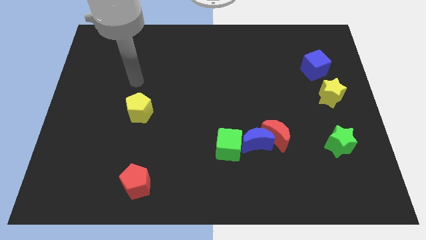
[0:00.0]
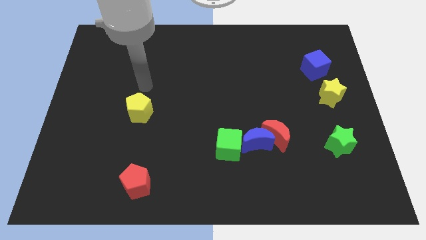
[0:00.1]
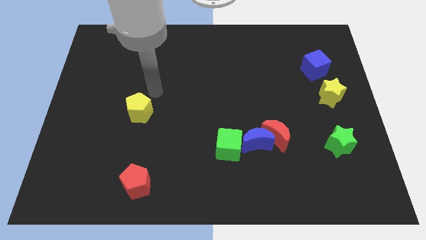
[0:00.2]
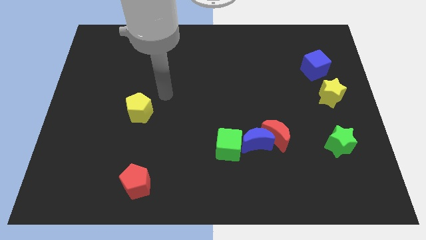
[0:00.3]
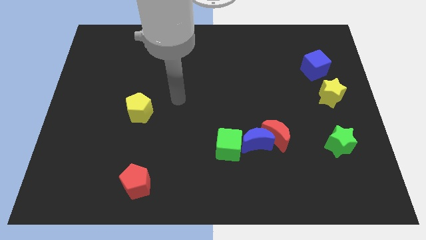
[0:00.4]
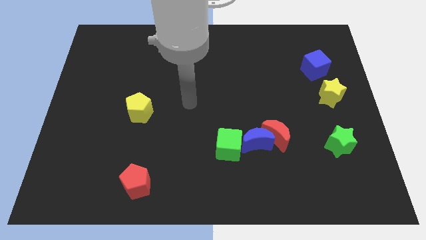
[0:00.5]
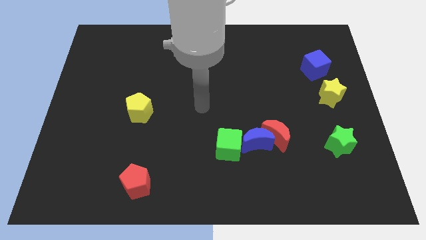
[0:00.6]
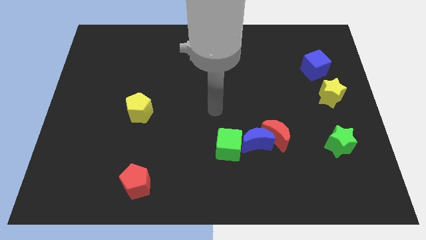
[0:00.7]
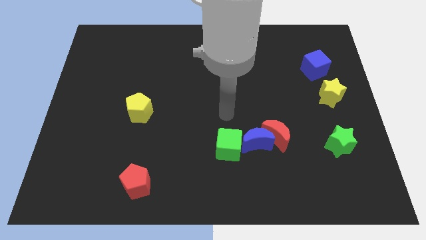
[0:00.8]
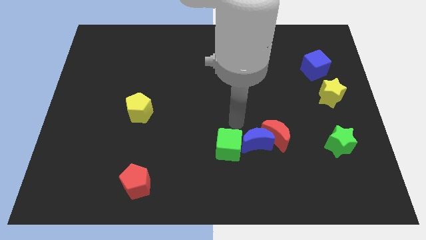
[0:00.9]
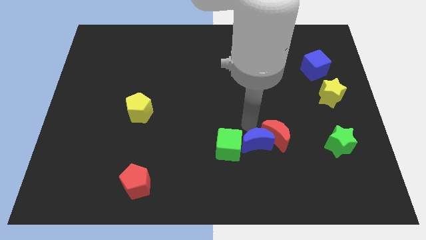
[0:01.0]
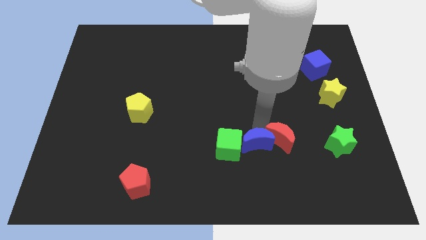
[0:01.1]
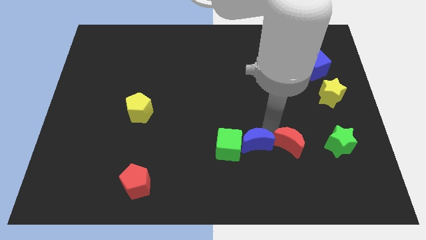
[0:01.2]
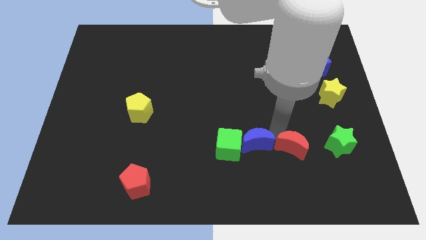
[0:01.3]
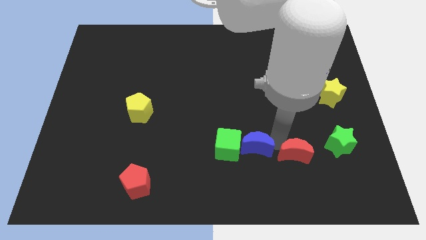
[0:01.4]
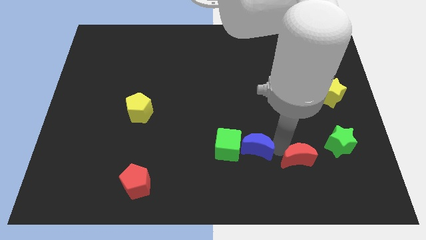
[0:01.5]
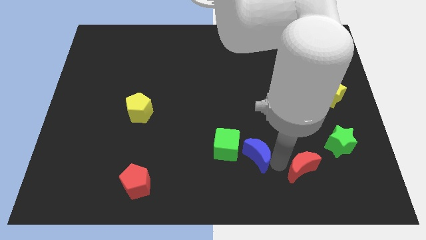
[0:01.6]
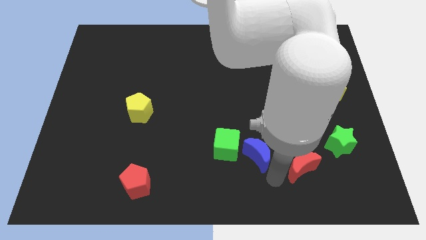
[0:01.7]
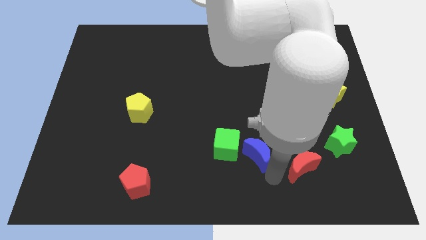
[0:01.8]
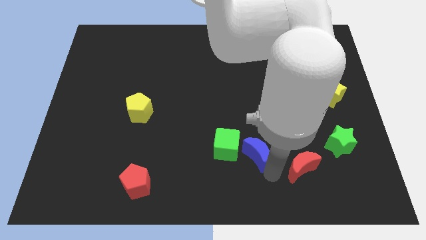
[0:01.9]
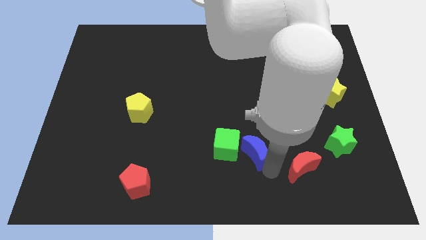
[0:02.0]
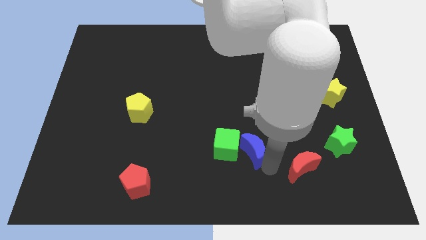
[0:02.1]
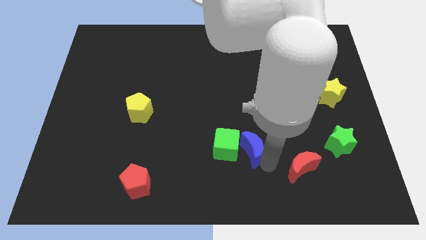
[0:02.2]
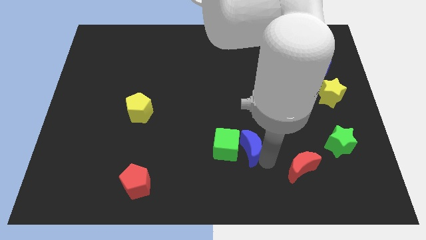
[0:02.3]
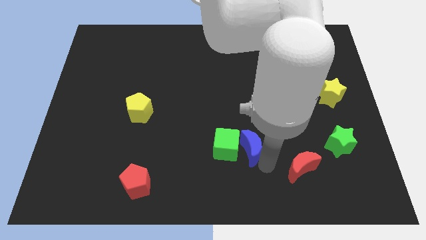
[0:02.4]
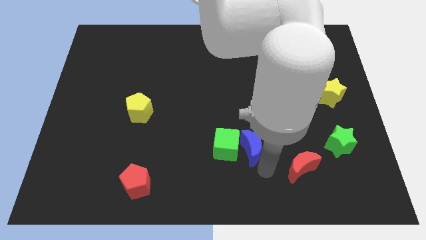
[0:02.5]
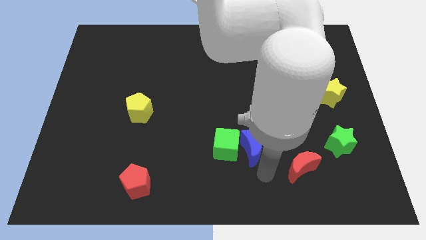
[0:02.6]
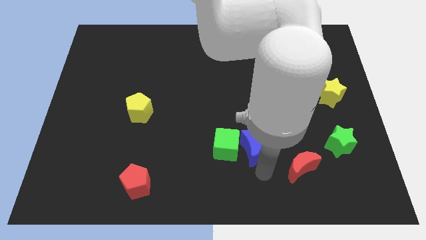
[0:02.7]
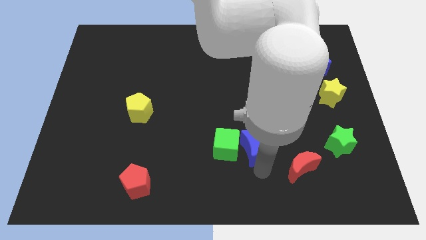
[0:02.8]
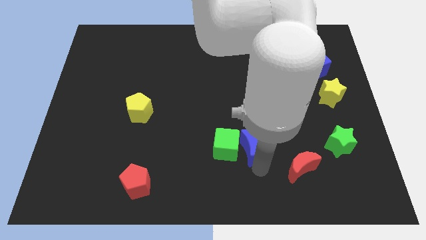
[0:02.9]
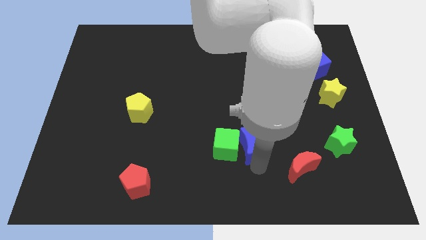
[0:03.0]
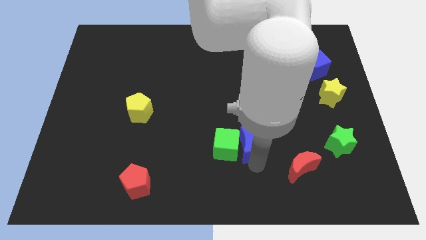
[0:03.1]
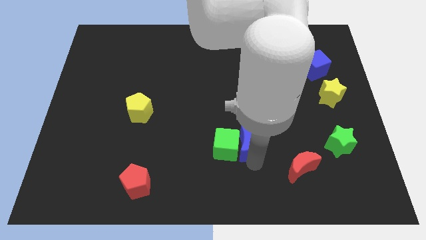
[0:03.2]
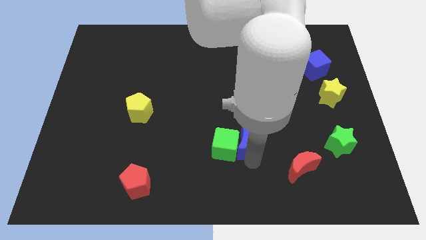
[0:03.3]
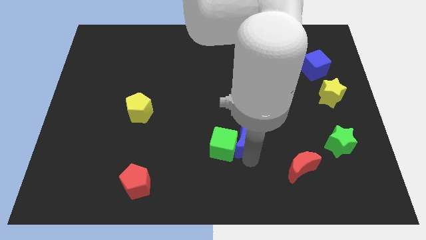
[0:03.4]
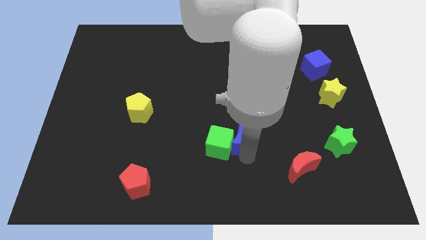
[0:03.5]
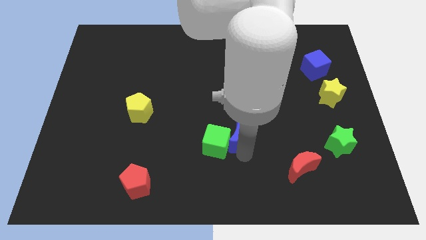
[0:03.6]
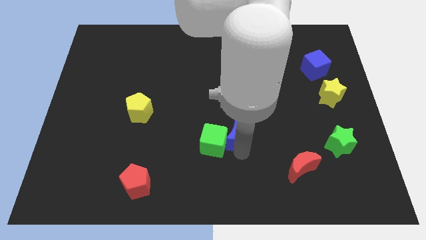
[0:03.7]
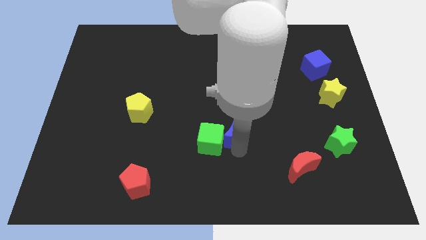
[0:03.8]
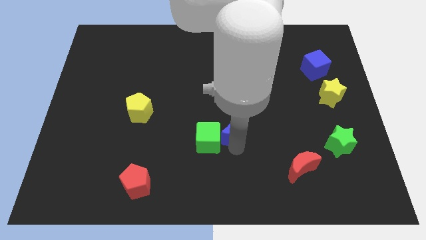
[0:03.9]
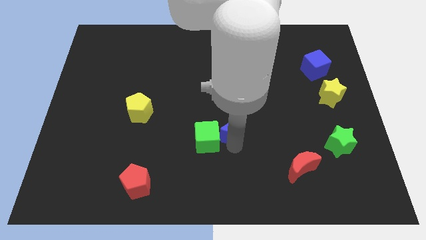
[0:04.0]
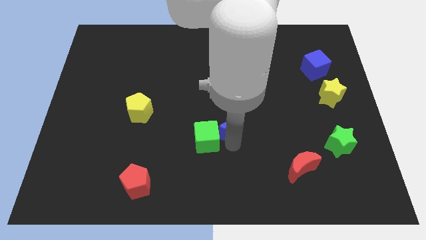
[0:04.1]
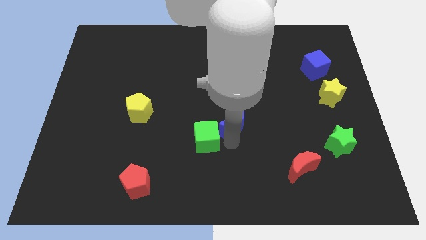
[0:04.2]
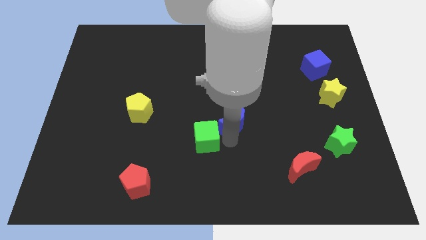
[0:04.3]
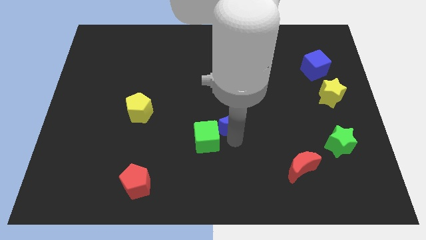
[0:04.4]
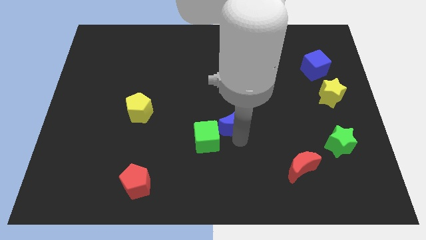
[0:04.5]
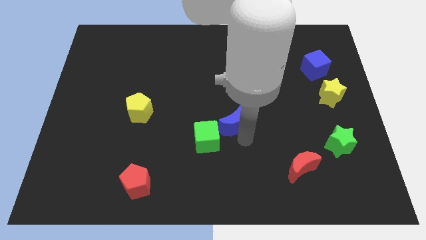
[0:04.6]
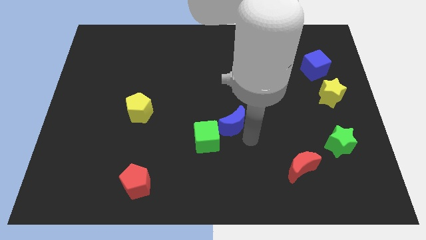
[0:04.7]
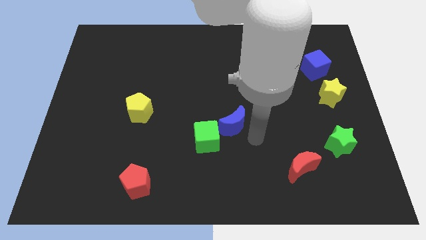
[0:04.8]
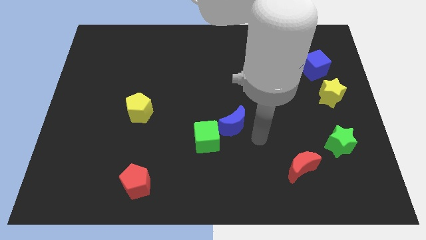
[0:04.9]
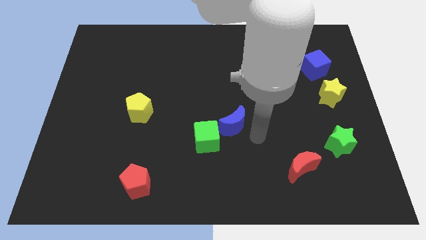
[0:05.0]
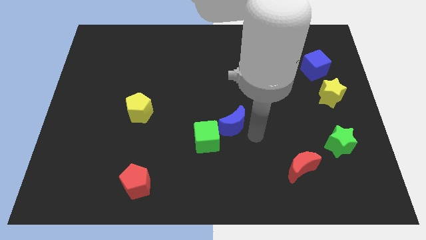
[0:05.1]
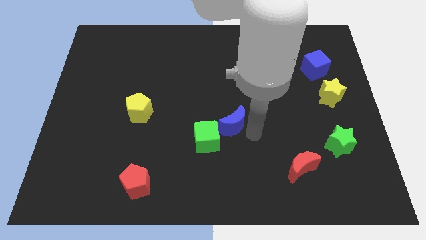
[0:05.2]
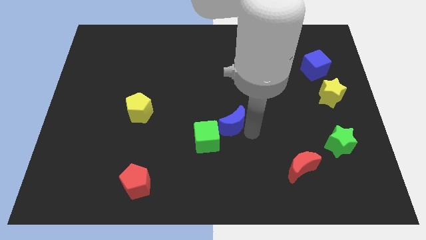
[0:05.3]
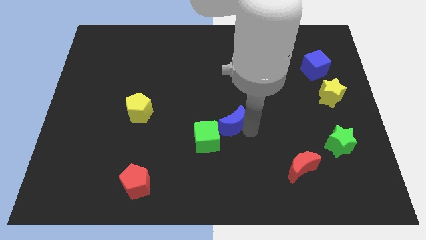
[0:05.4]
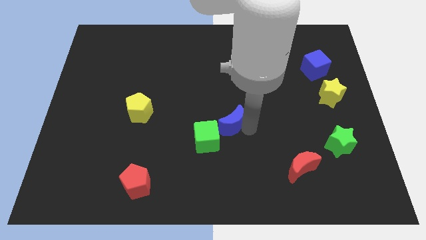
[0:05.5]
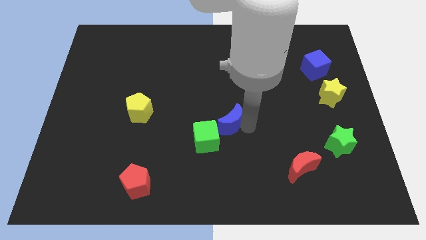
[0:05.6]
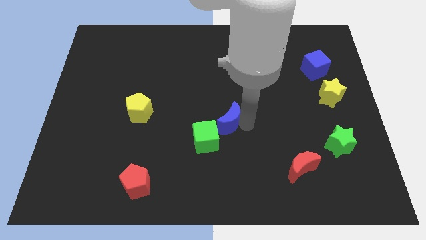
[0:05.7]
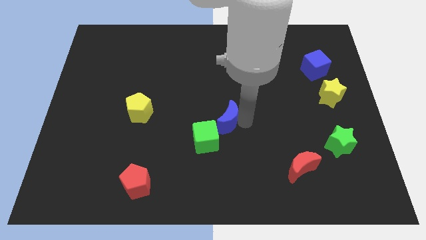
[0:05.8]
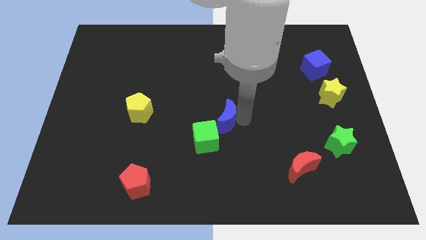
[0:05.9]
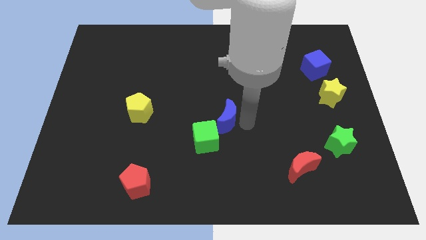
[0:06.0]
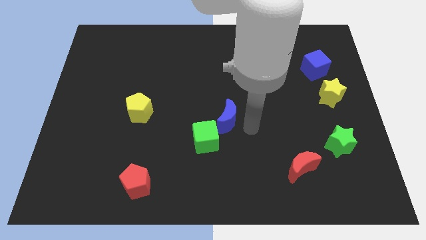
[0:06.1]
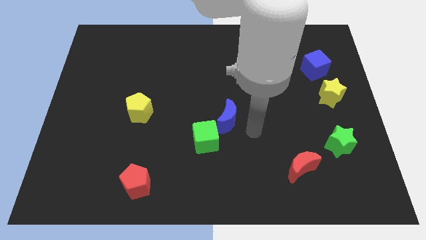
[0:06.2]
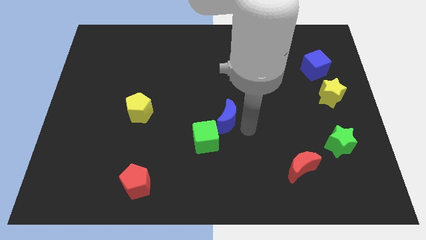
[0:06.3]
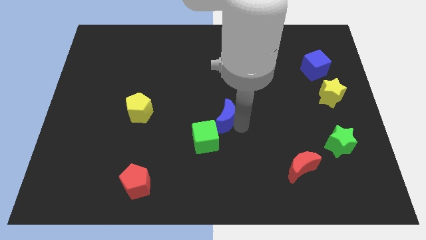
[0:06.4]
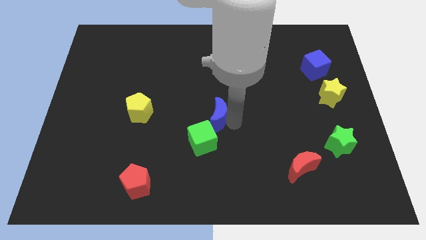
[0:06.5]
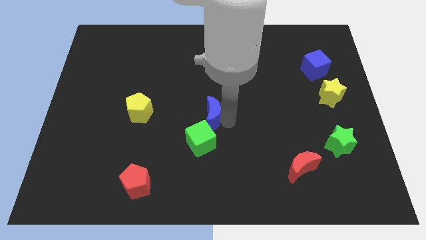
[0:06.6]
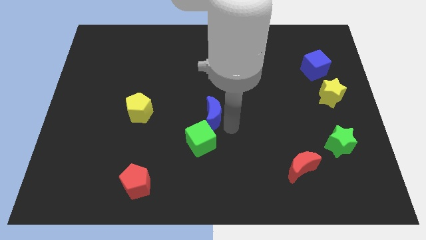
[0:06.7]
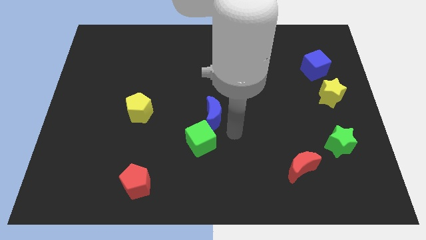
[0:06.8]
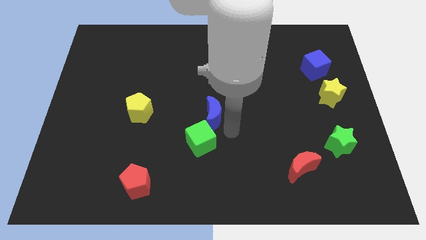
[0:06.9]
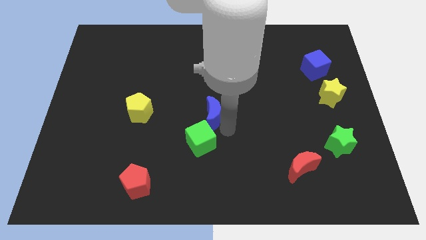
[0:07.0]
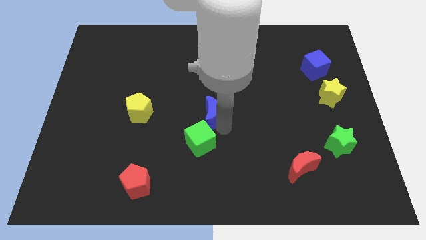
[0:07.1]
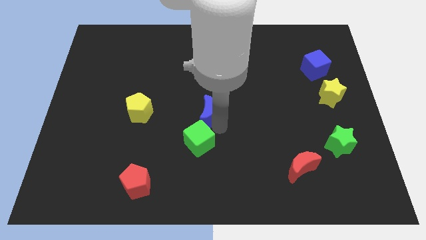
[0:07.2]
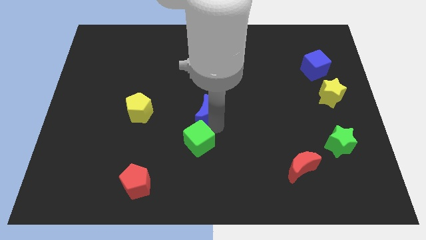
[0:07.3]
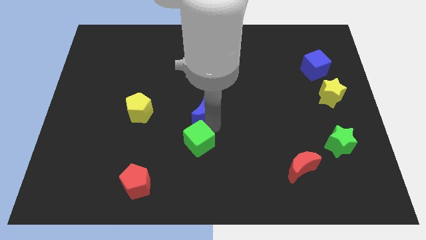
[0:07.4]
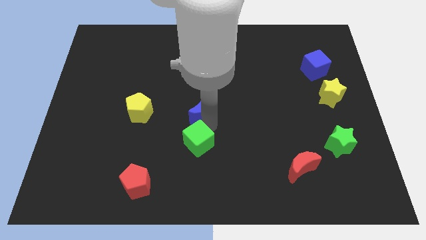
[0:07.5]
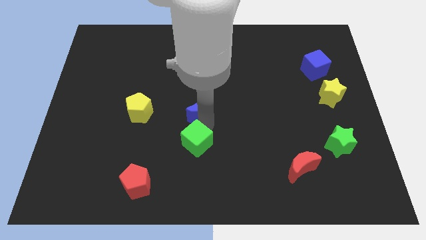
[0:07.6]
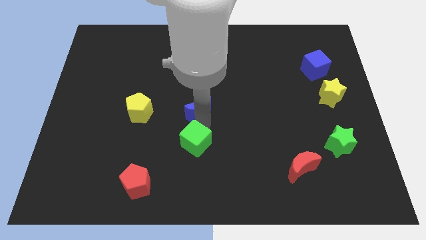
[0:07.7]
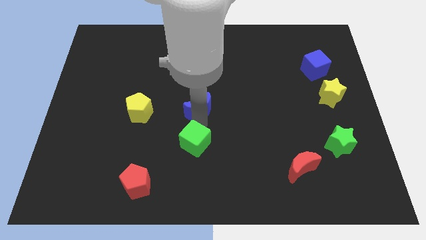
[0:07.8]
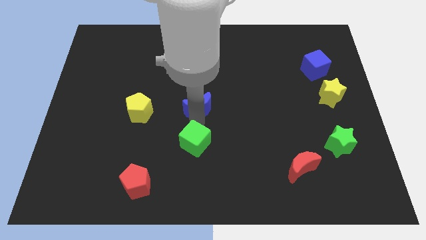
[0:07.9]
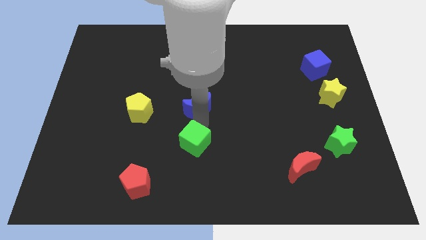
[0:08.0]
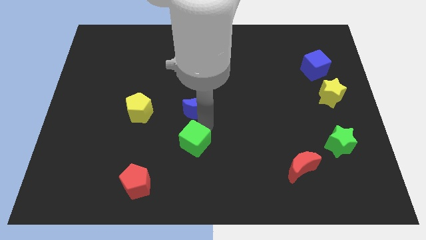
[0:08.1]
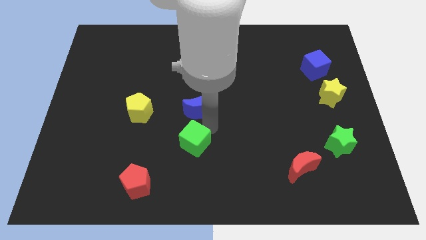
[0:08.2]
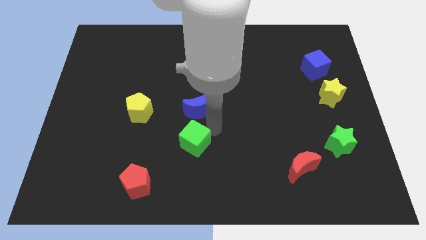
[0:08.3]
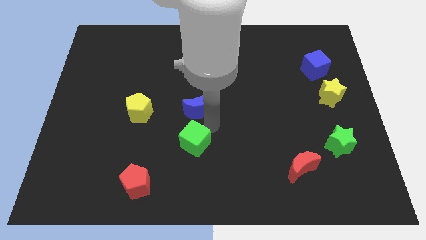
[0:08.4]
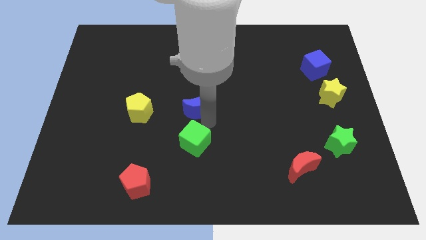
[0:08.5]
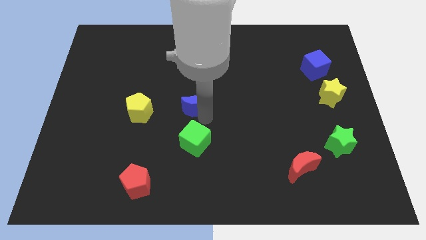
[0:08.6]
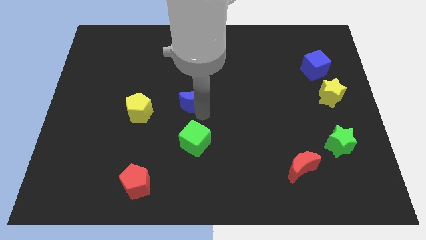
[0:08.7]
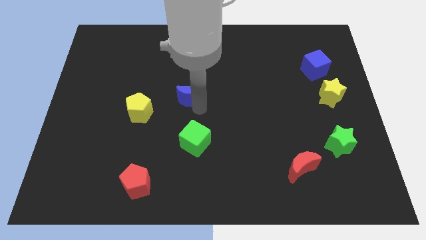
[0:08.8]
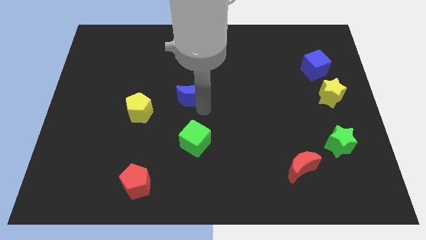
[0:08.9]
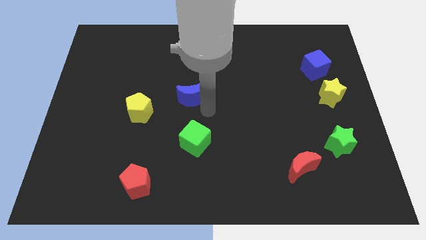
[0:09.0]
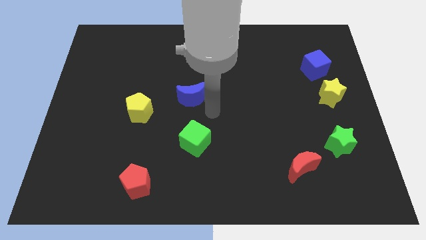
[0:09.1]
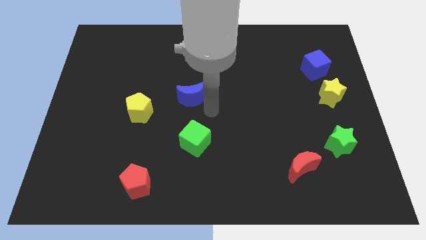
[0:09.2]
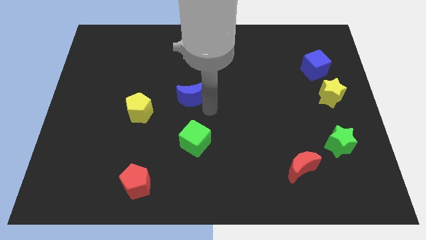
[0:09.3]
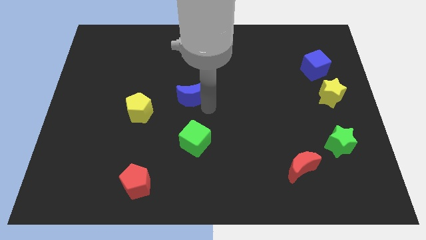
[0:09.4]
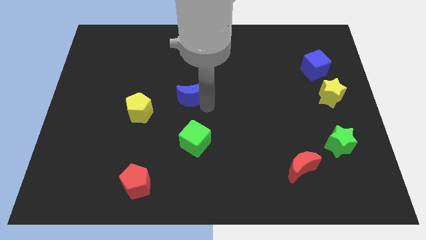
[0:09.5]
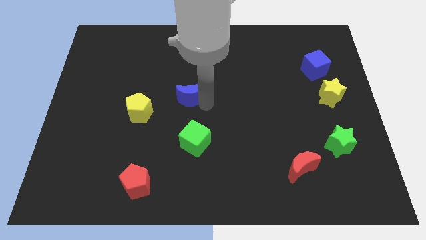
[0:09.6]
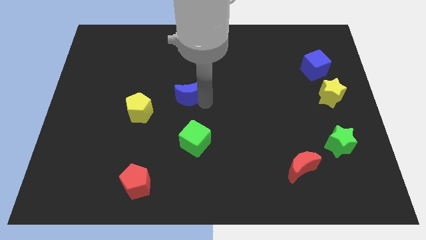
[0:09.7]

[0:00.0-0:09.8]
push the blue moon up and left diagonally
